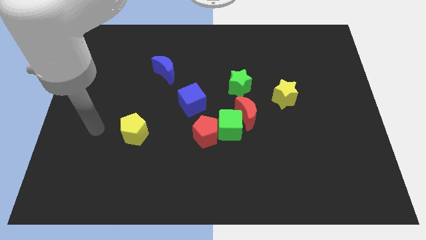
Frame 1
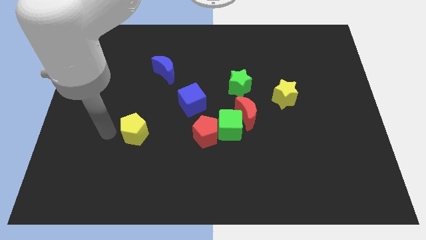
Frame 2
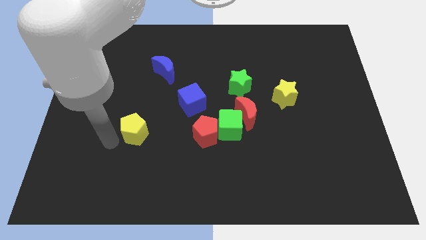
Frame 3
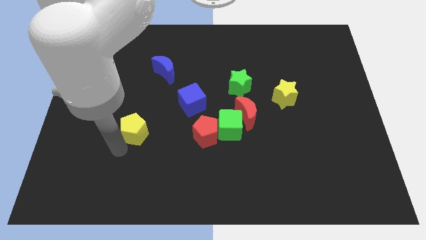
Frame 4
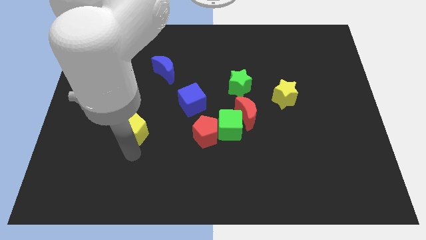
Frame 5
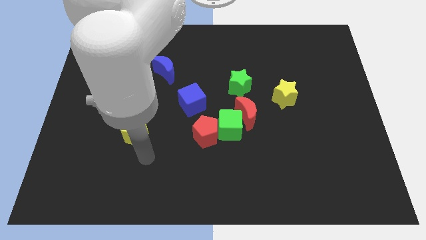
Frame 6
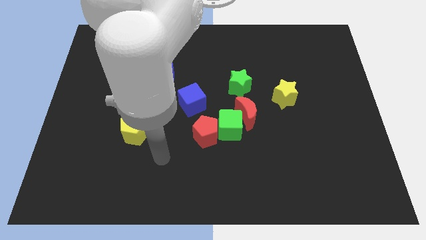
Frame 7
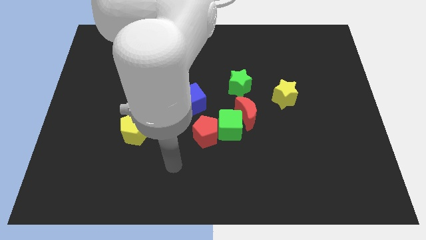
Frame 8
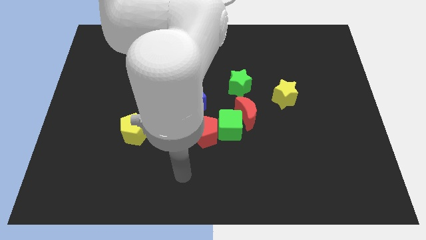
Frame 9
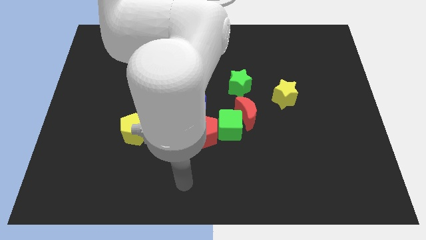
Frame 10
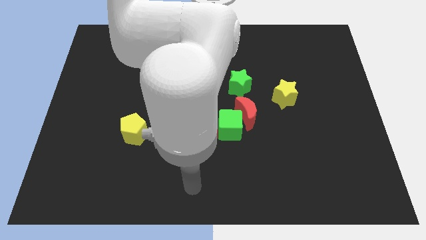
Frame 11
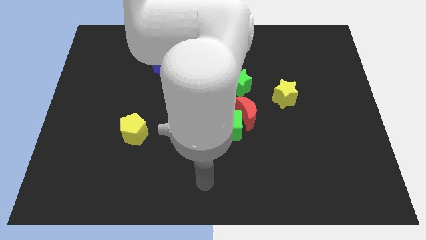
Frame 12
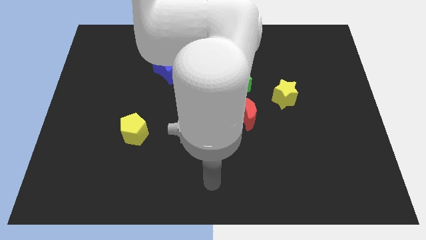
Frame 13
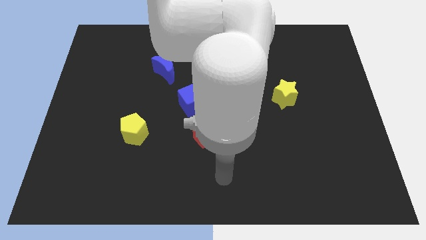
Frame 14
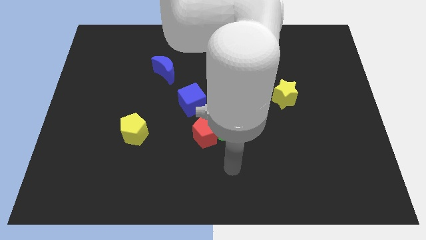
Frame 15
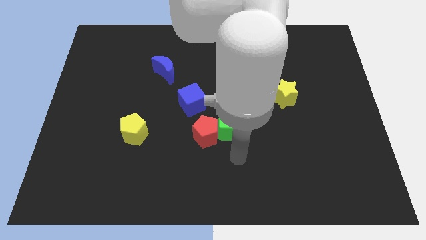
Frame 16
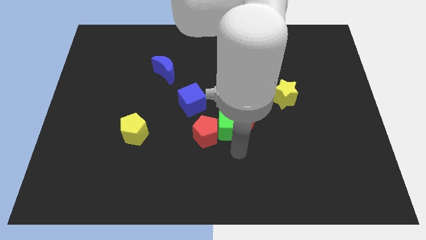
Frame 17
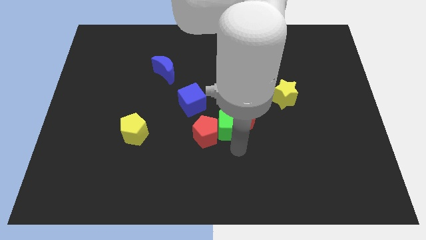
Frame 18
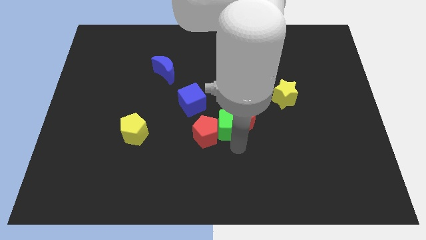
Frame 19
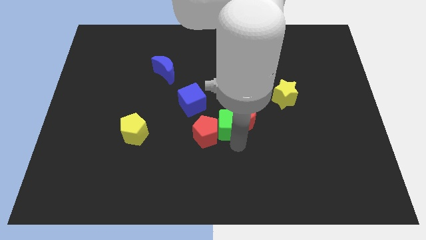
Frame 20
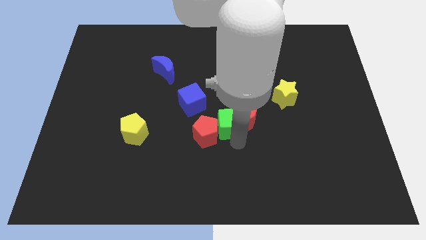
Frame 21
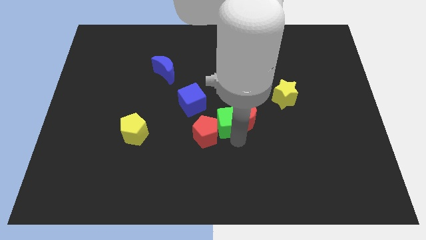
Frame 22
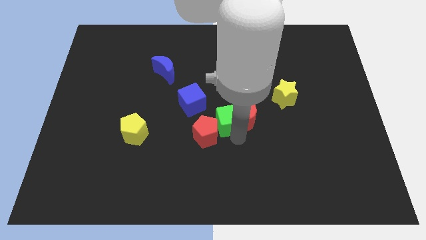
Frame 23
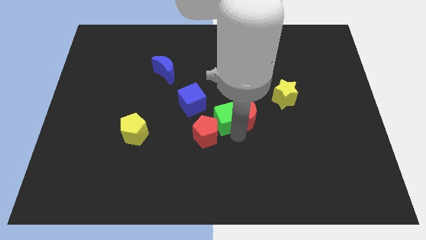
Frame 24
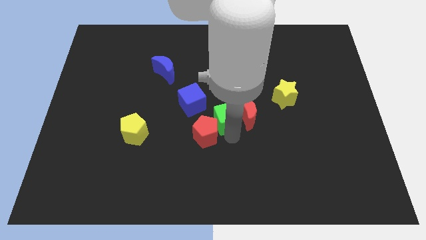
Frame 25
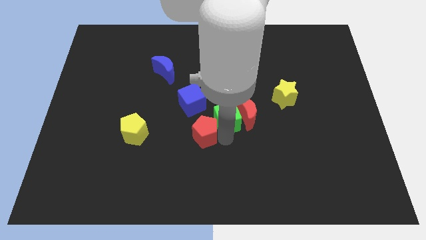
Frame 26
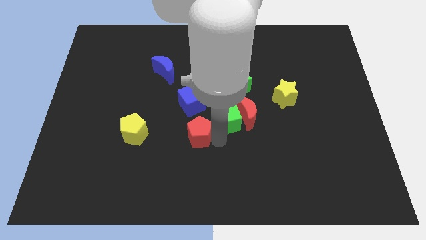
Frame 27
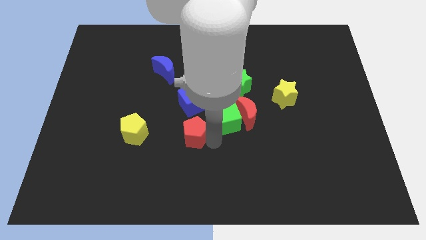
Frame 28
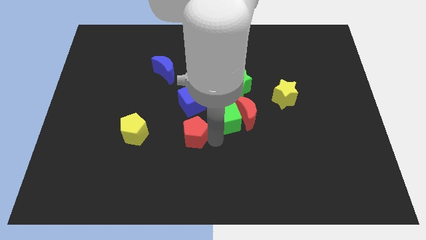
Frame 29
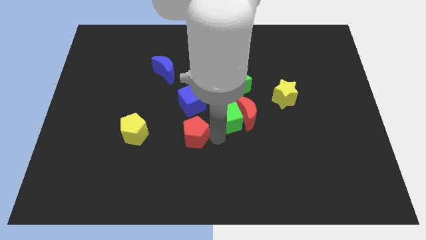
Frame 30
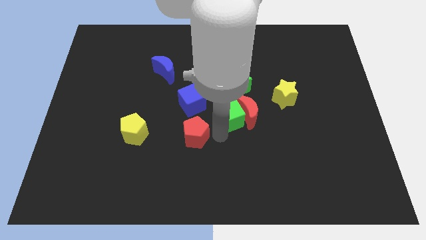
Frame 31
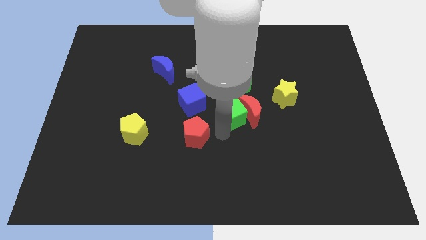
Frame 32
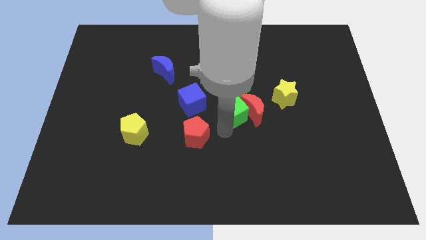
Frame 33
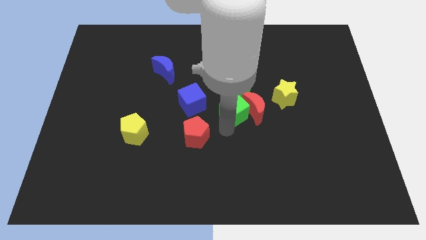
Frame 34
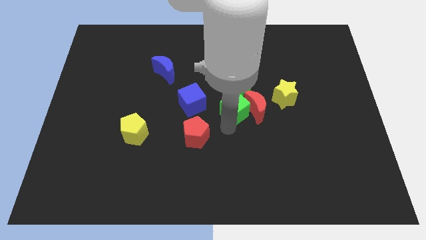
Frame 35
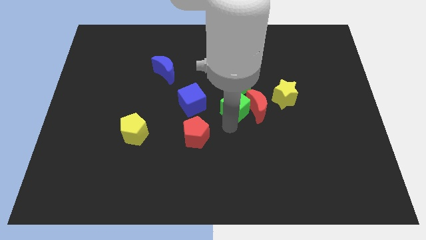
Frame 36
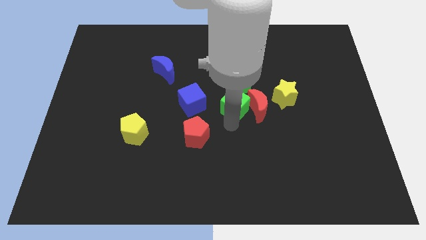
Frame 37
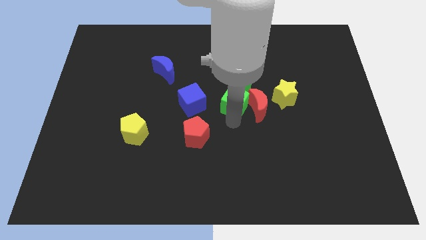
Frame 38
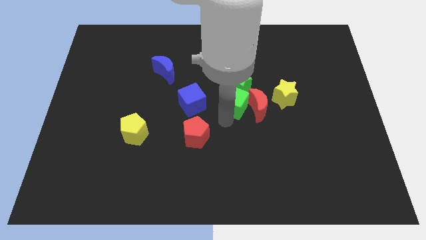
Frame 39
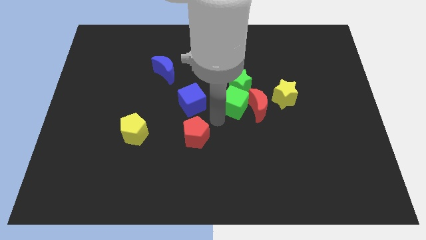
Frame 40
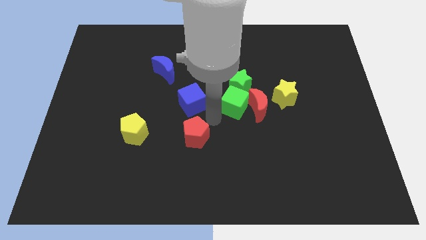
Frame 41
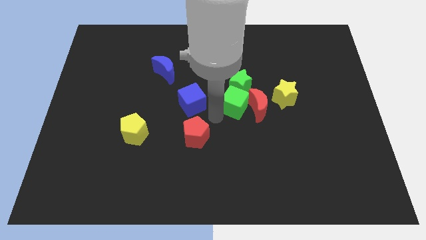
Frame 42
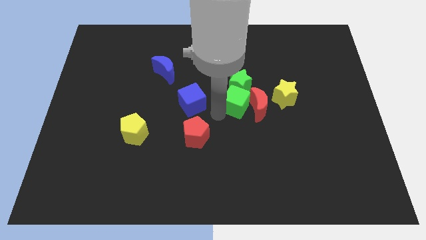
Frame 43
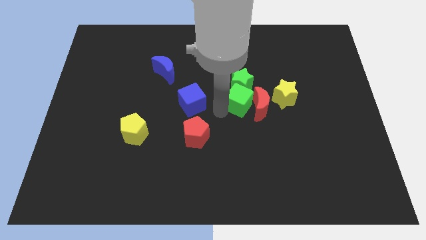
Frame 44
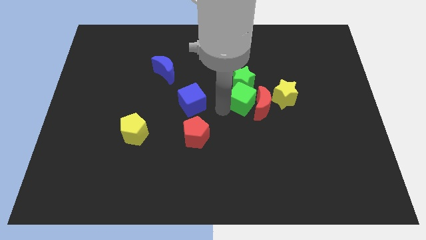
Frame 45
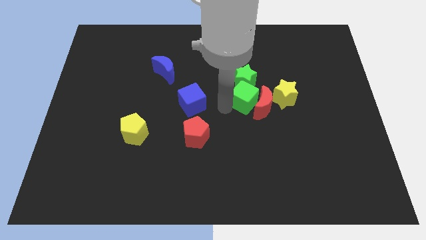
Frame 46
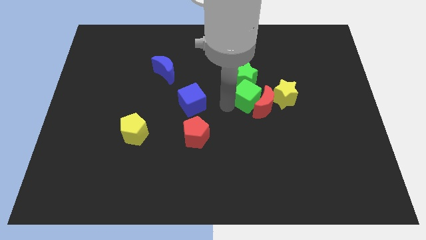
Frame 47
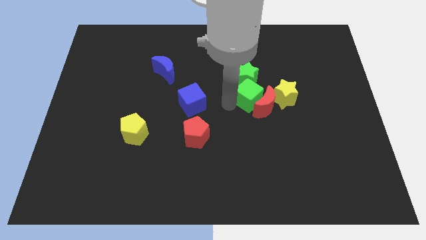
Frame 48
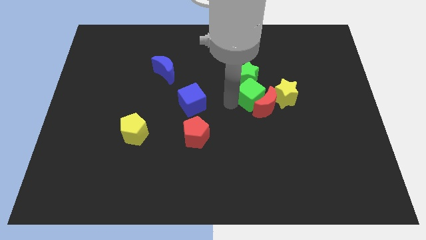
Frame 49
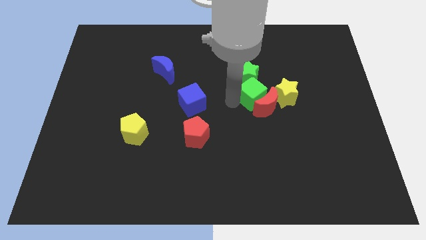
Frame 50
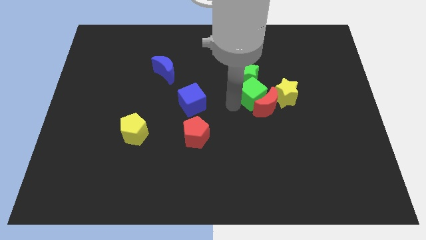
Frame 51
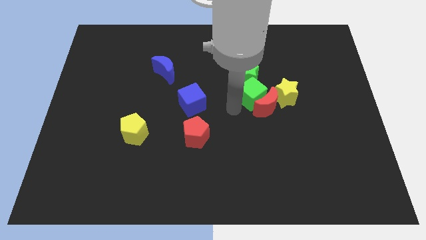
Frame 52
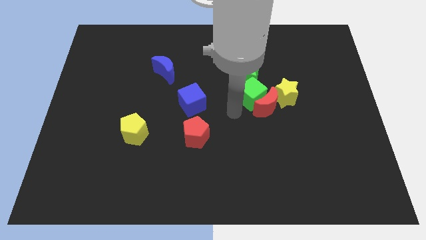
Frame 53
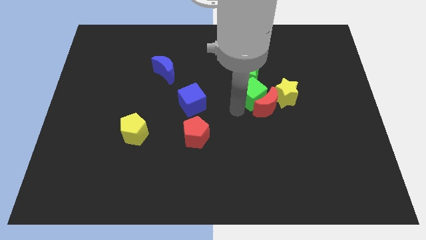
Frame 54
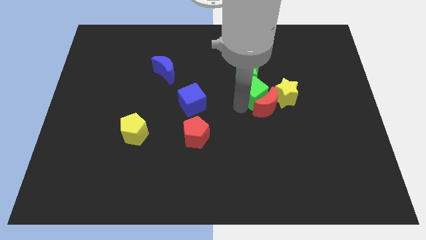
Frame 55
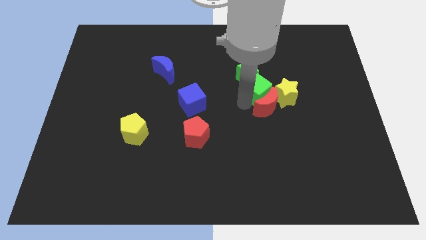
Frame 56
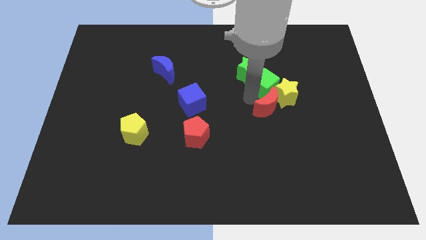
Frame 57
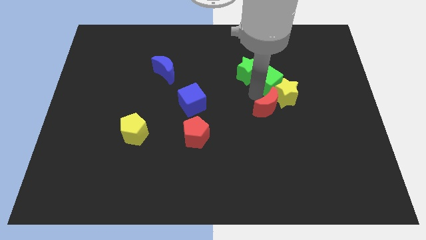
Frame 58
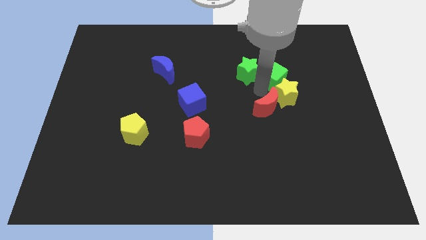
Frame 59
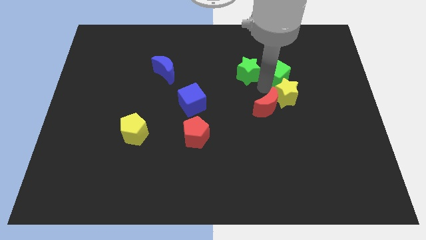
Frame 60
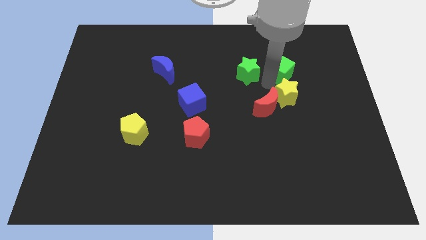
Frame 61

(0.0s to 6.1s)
push the green cube upwards and right

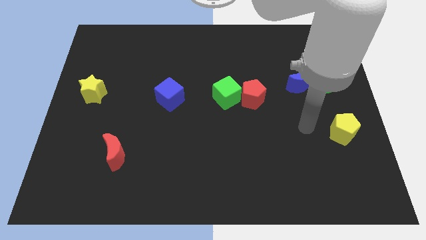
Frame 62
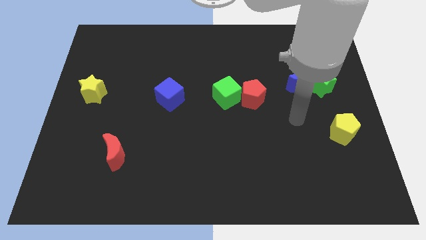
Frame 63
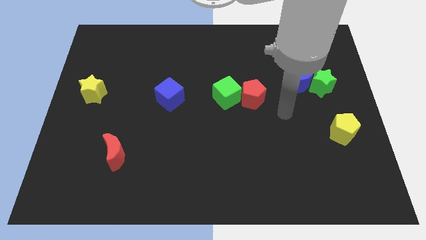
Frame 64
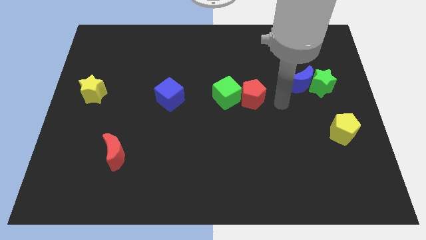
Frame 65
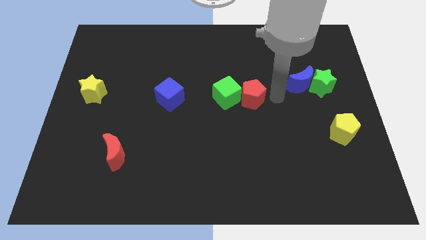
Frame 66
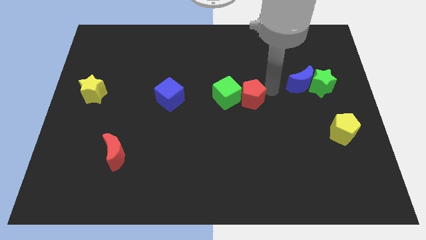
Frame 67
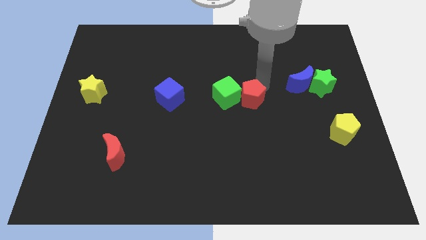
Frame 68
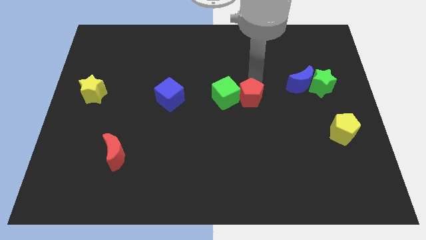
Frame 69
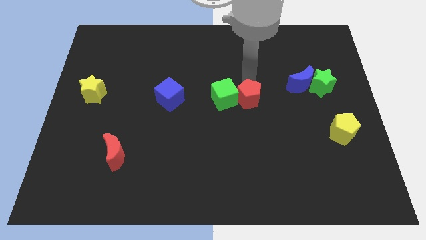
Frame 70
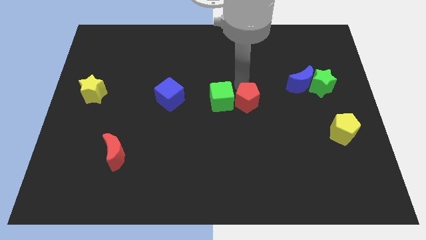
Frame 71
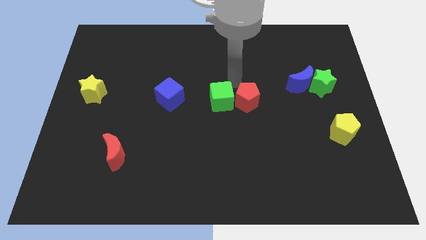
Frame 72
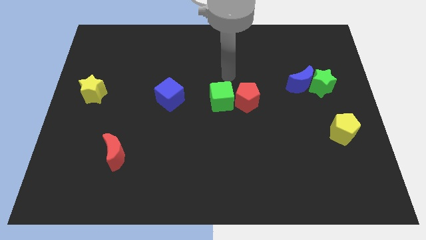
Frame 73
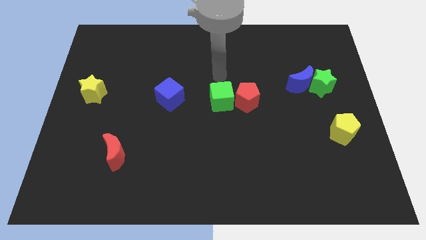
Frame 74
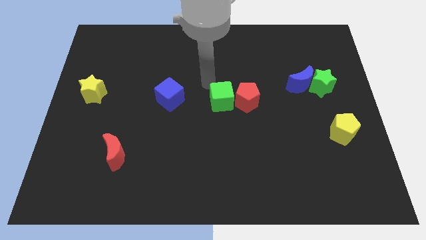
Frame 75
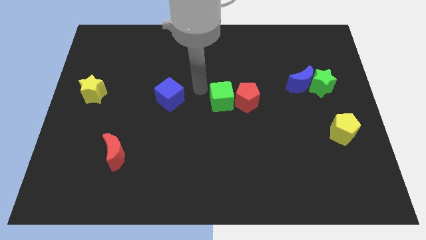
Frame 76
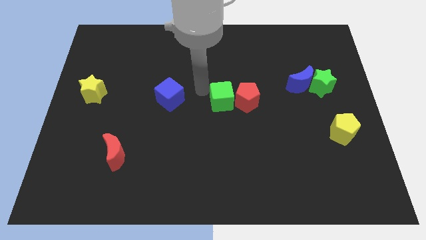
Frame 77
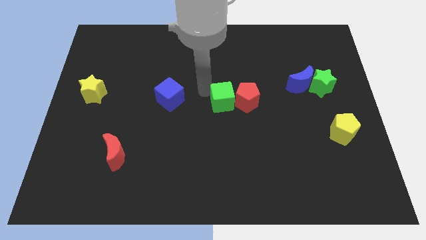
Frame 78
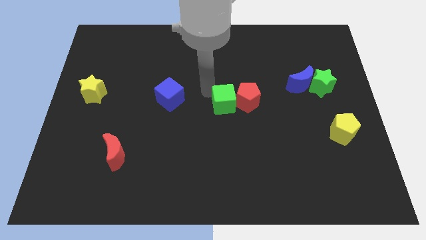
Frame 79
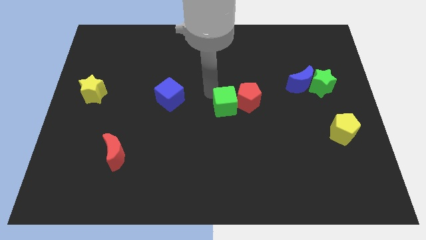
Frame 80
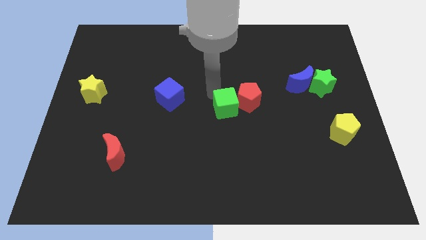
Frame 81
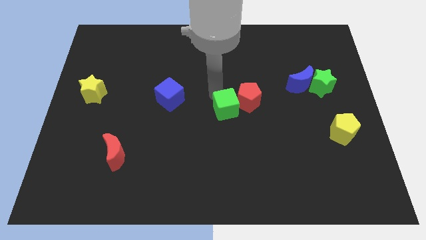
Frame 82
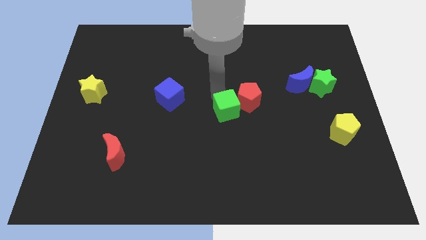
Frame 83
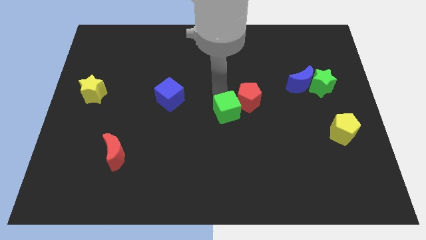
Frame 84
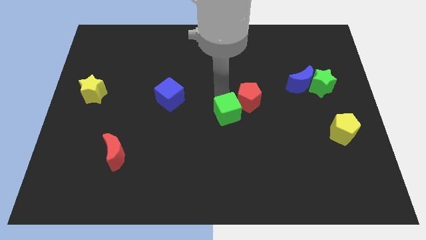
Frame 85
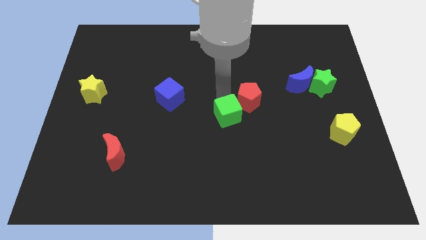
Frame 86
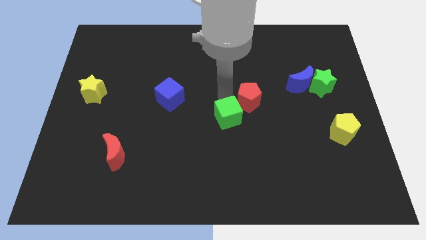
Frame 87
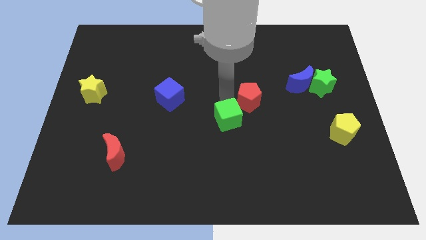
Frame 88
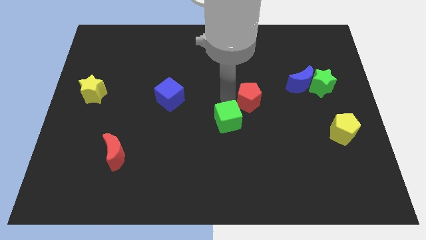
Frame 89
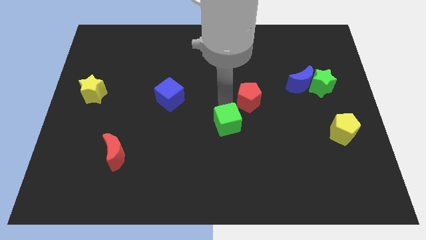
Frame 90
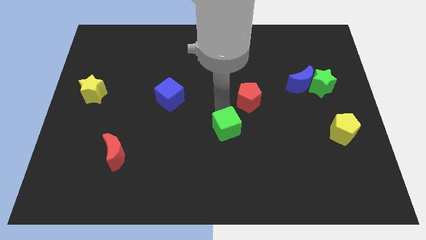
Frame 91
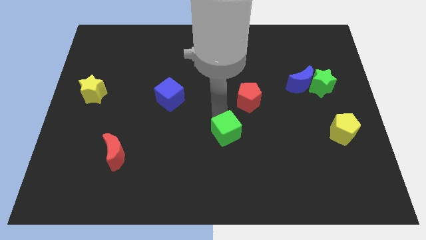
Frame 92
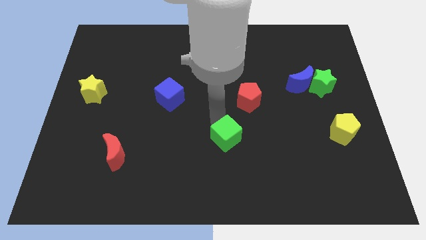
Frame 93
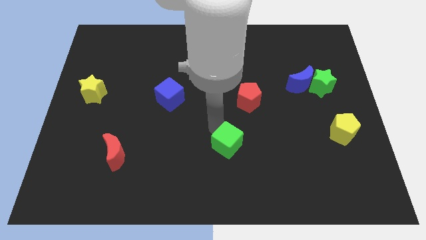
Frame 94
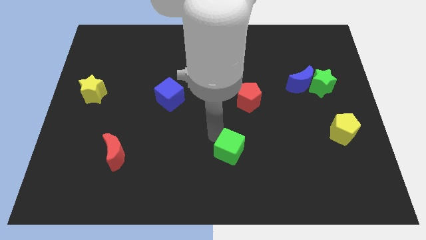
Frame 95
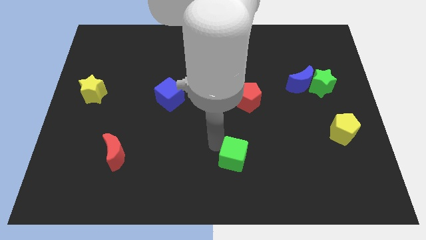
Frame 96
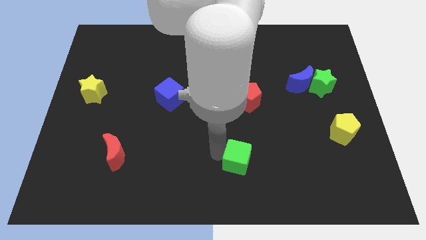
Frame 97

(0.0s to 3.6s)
slightly move the green cube diagonally downwards and to the right
